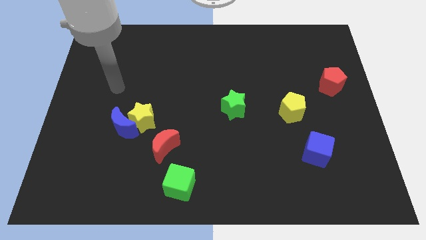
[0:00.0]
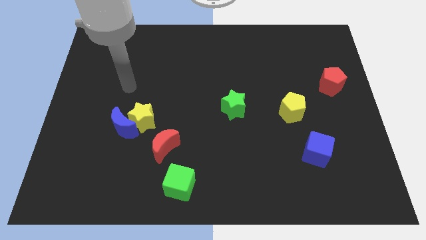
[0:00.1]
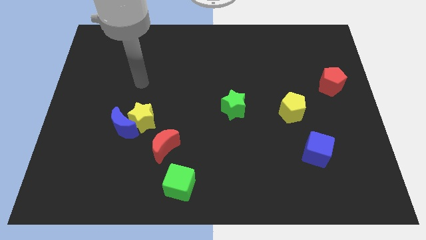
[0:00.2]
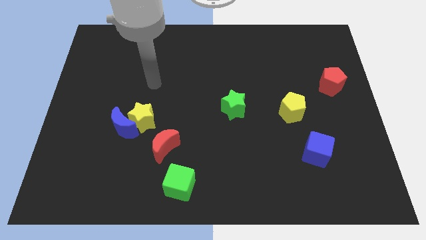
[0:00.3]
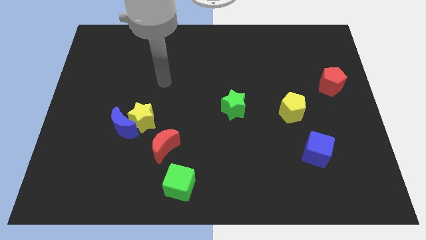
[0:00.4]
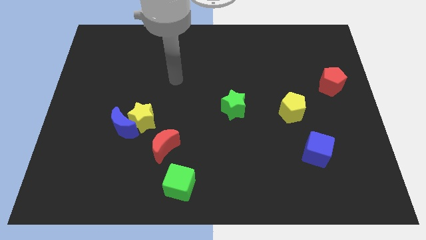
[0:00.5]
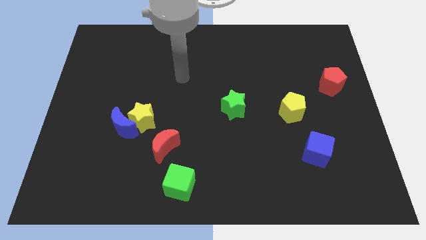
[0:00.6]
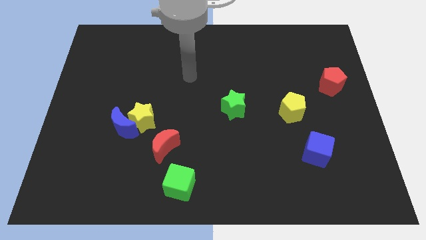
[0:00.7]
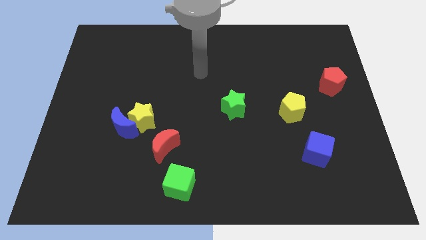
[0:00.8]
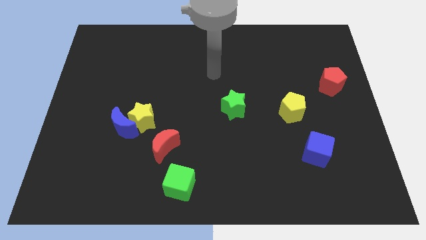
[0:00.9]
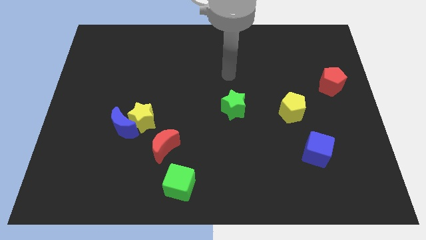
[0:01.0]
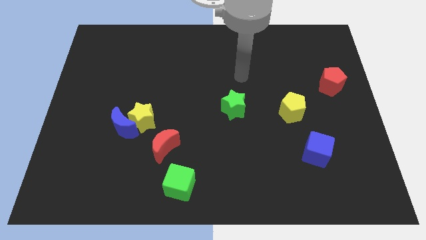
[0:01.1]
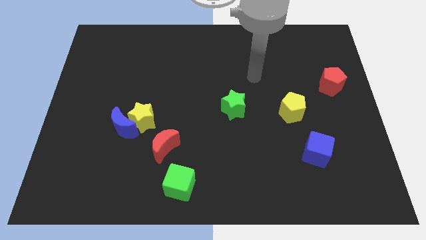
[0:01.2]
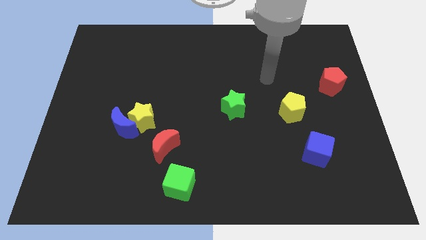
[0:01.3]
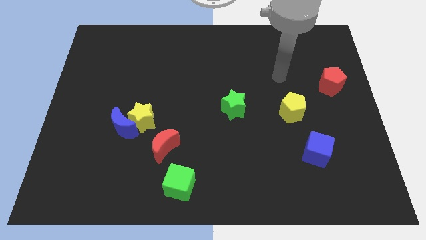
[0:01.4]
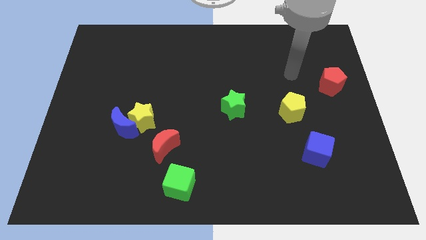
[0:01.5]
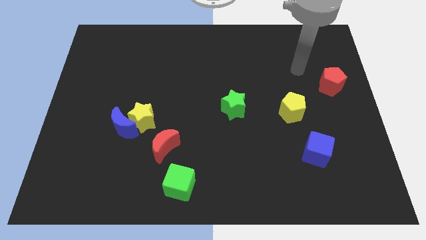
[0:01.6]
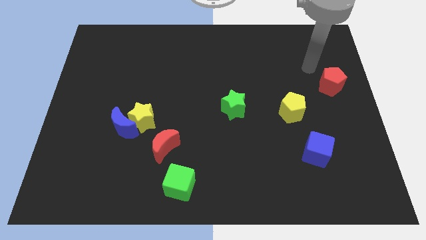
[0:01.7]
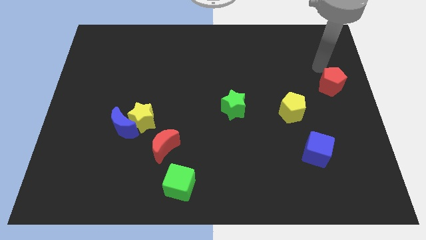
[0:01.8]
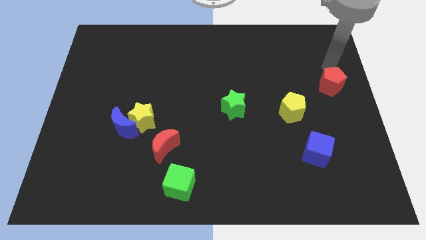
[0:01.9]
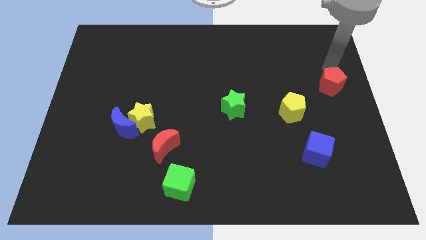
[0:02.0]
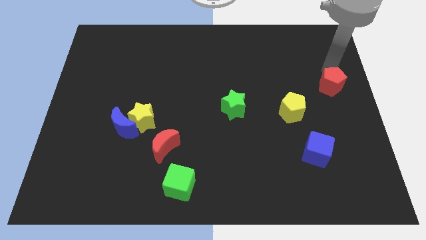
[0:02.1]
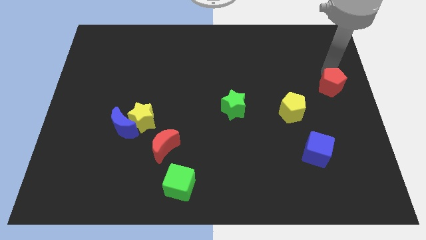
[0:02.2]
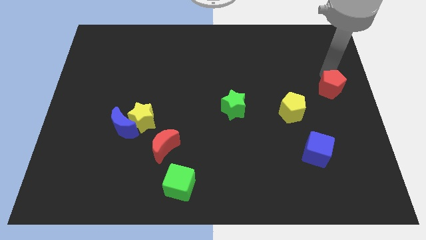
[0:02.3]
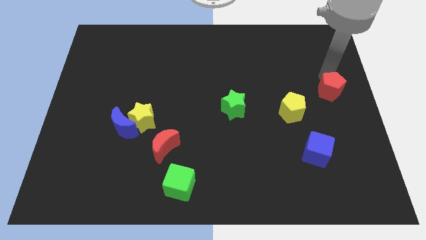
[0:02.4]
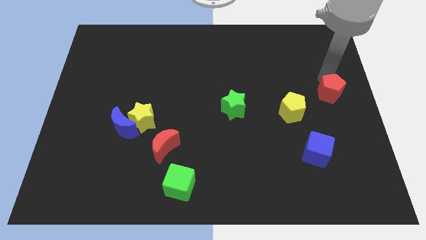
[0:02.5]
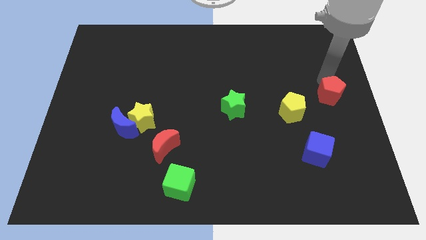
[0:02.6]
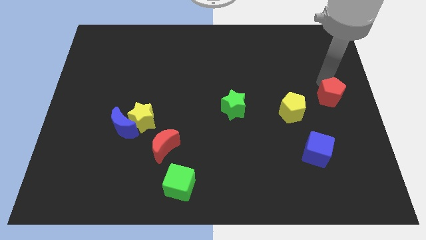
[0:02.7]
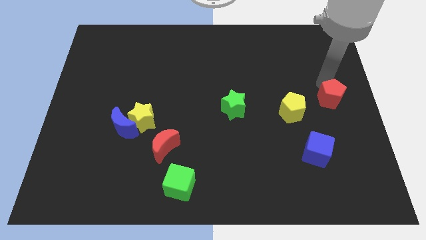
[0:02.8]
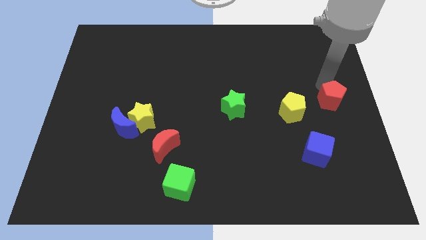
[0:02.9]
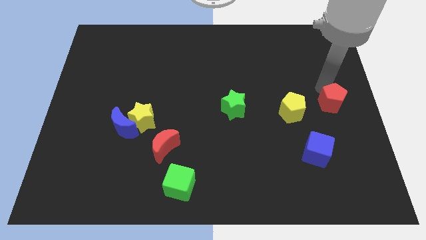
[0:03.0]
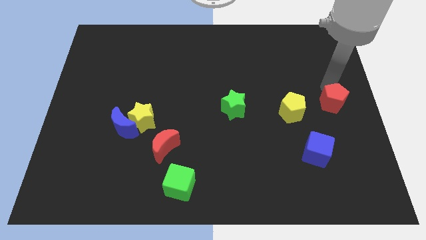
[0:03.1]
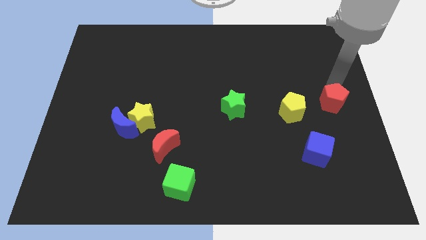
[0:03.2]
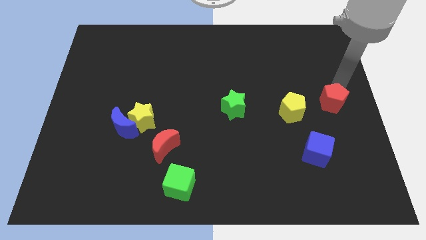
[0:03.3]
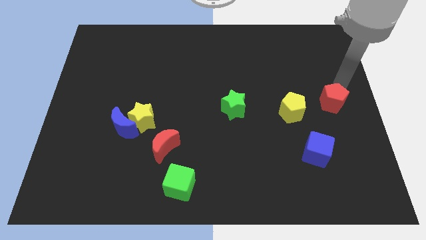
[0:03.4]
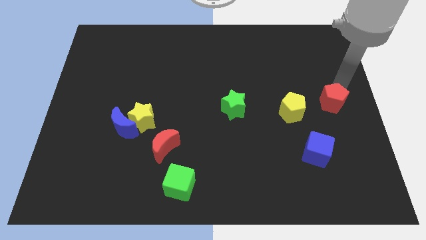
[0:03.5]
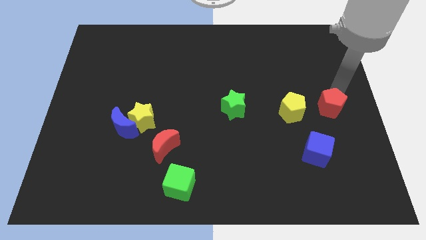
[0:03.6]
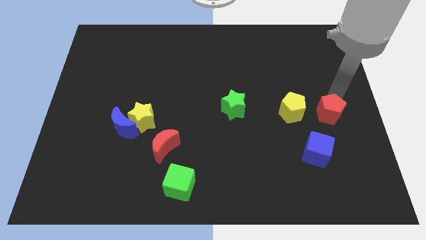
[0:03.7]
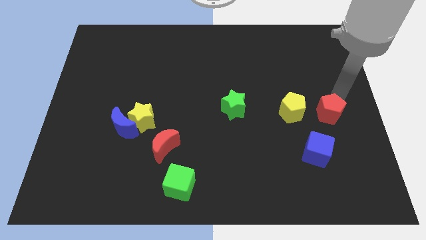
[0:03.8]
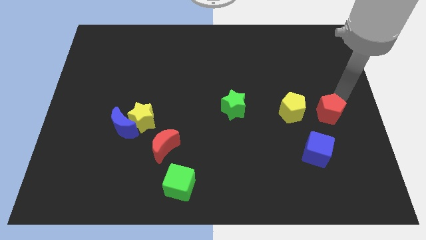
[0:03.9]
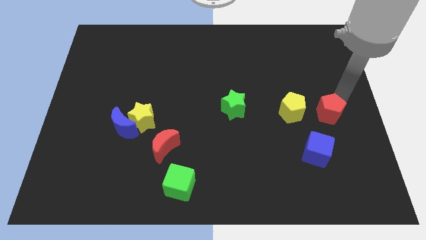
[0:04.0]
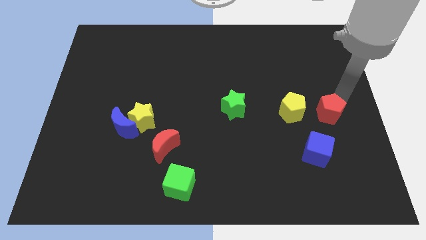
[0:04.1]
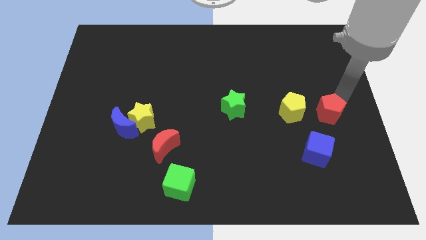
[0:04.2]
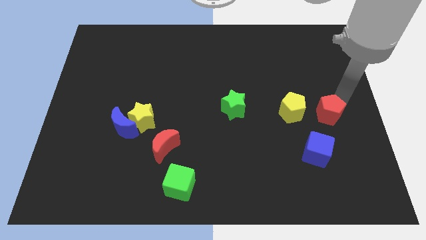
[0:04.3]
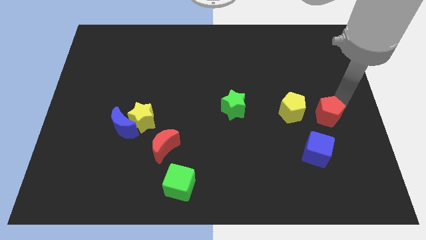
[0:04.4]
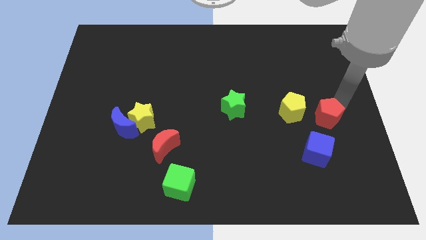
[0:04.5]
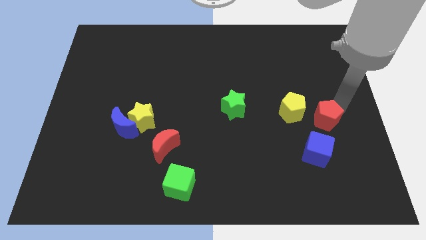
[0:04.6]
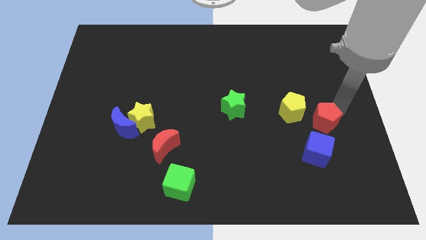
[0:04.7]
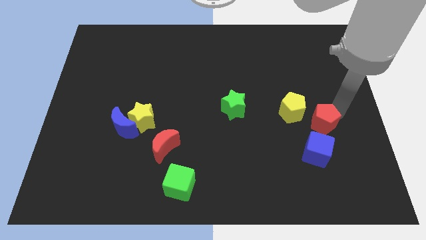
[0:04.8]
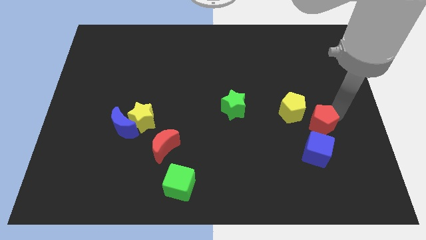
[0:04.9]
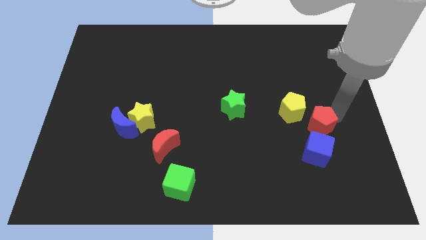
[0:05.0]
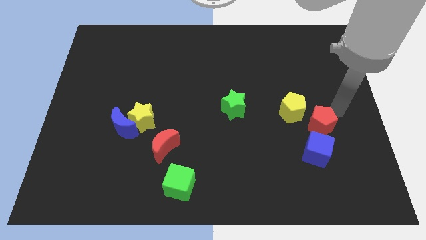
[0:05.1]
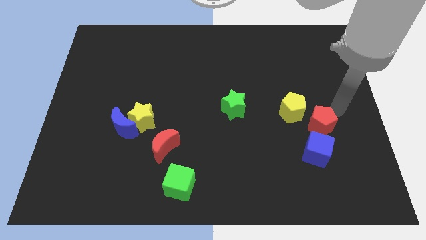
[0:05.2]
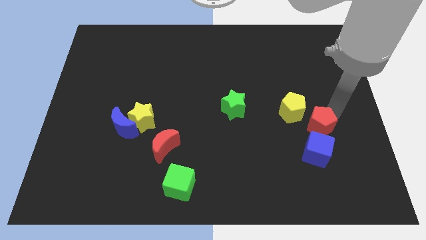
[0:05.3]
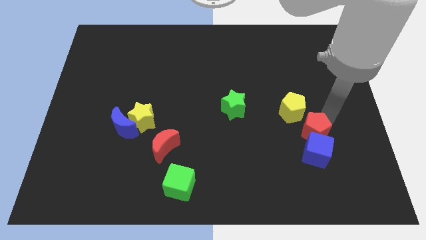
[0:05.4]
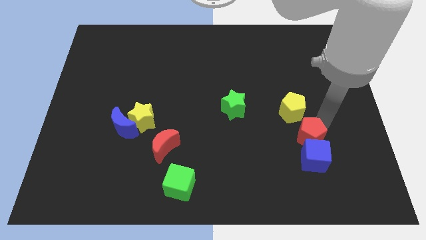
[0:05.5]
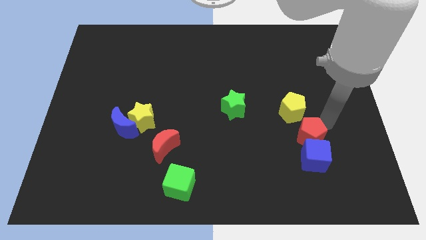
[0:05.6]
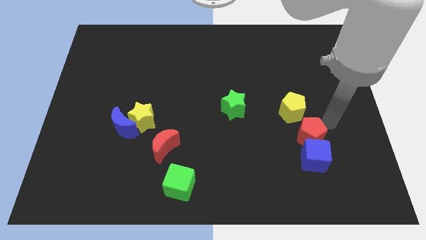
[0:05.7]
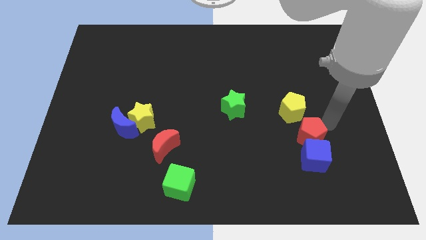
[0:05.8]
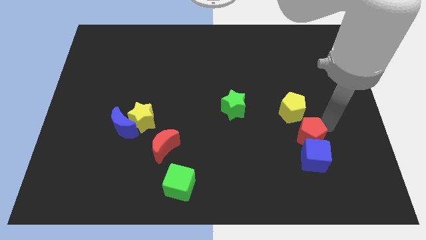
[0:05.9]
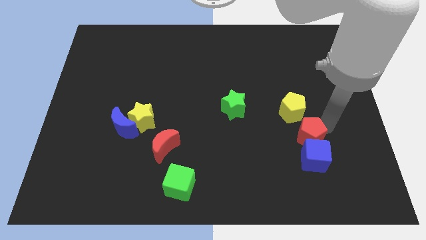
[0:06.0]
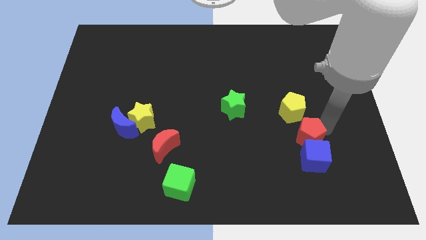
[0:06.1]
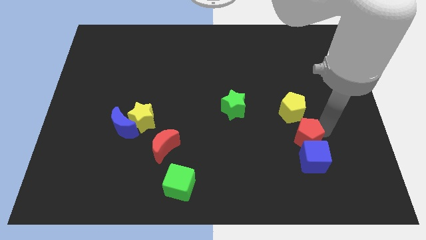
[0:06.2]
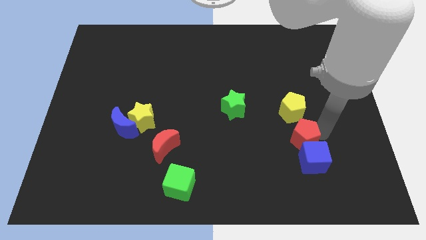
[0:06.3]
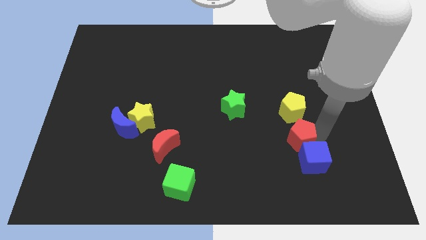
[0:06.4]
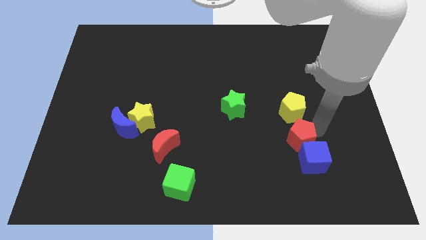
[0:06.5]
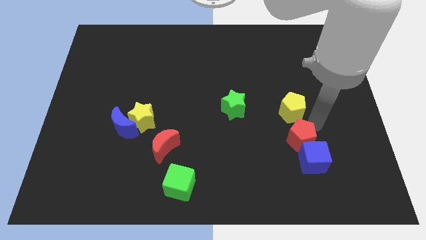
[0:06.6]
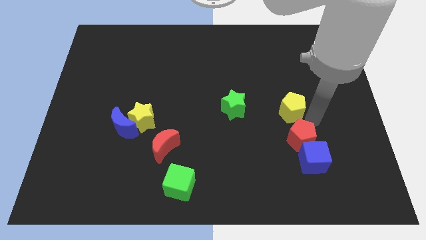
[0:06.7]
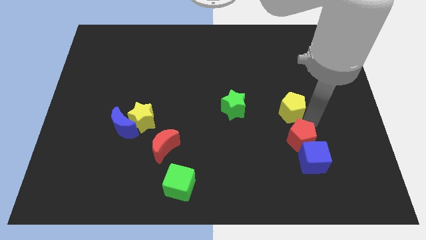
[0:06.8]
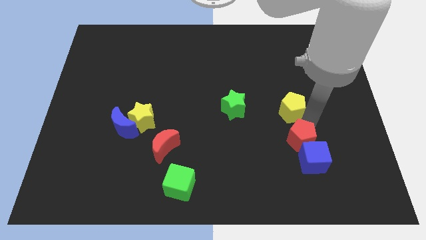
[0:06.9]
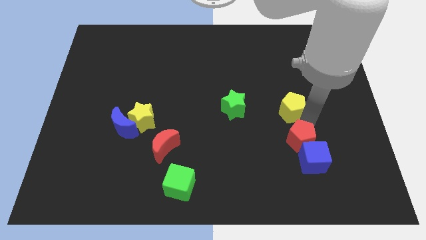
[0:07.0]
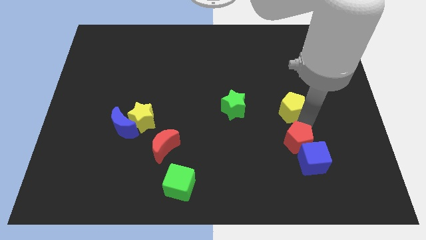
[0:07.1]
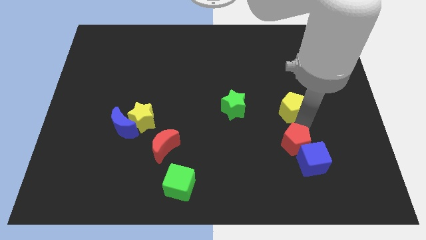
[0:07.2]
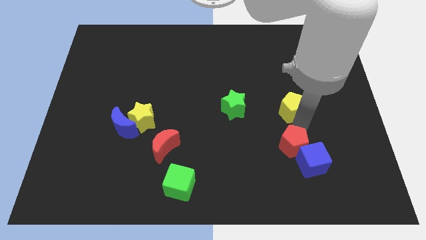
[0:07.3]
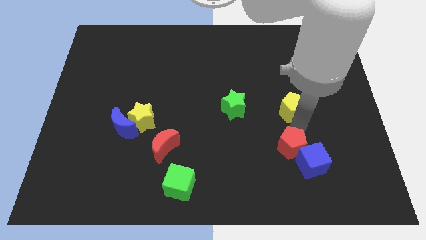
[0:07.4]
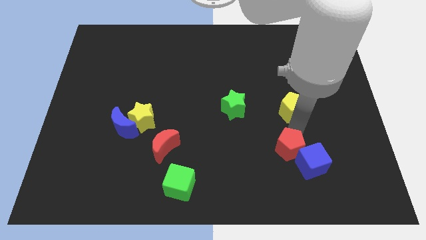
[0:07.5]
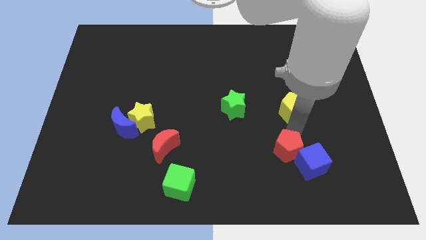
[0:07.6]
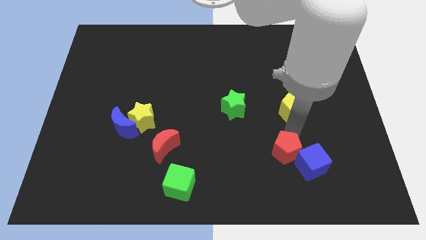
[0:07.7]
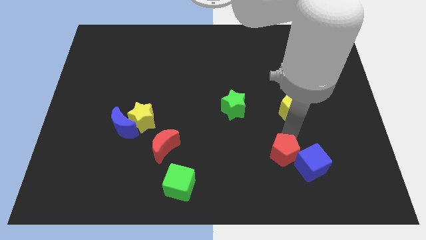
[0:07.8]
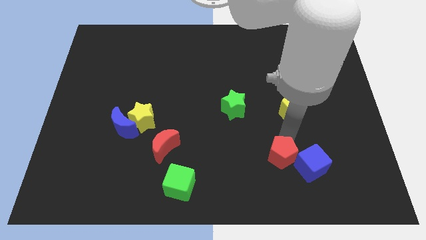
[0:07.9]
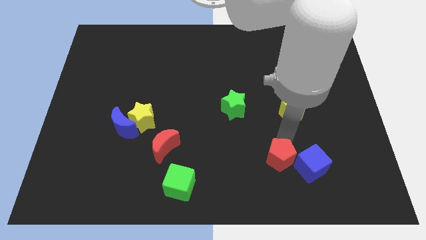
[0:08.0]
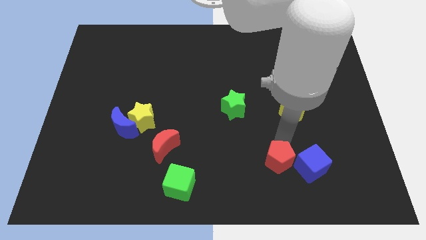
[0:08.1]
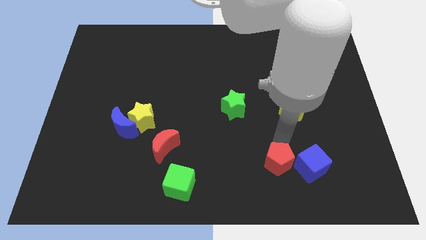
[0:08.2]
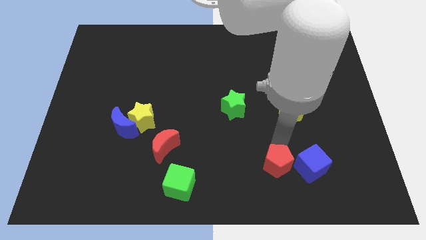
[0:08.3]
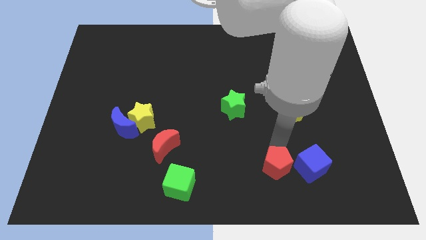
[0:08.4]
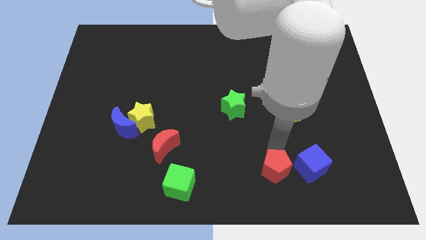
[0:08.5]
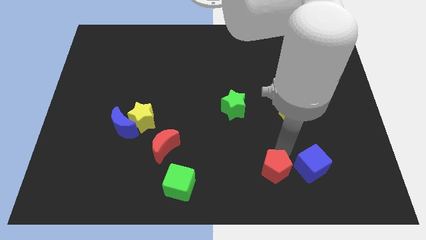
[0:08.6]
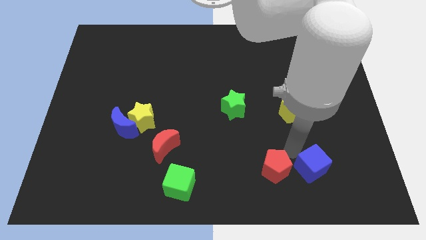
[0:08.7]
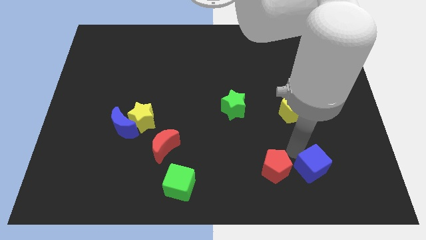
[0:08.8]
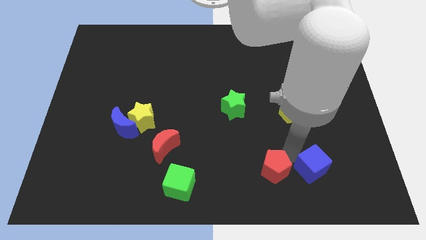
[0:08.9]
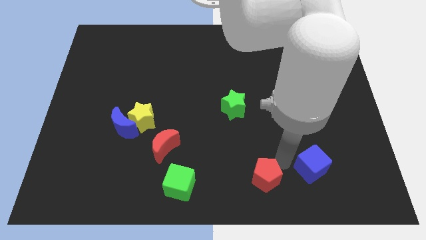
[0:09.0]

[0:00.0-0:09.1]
push the red pentagon to the bottom side
